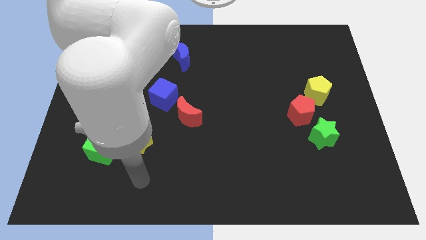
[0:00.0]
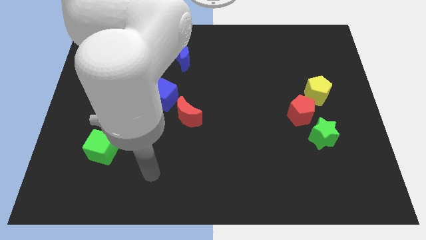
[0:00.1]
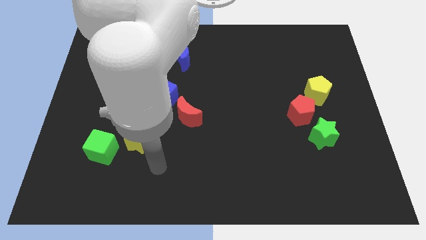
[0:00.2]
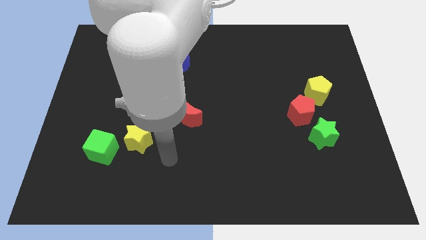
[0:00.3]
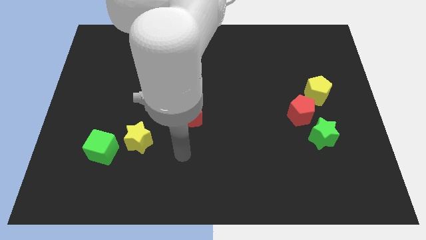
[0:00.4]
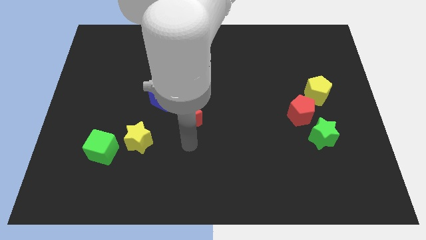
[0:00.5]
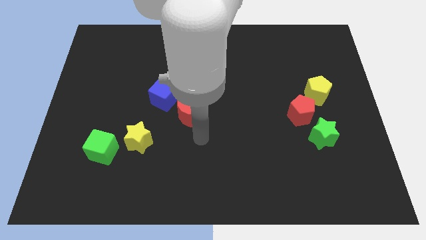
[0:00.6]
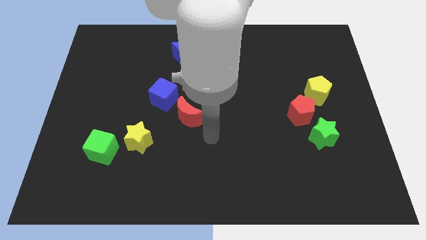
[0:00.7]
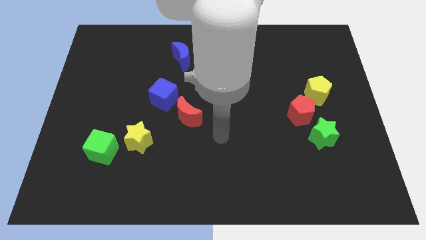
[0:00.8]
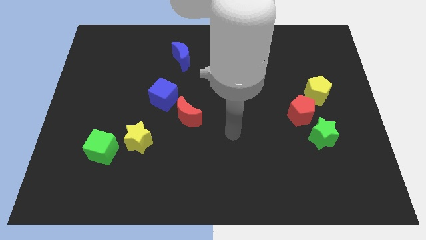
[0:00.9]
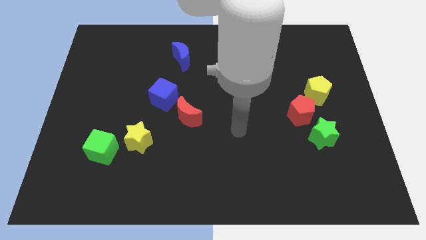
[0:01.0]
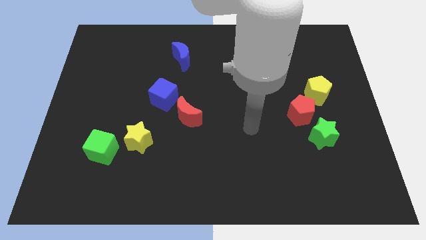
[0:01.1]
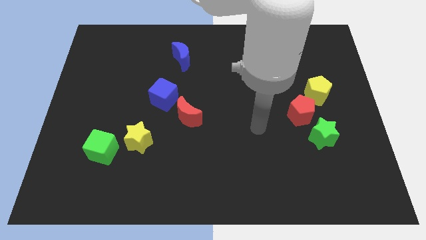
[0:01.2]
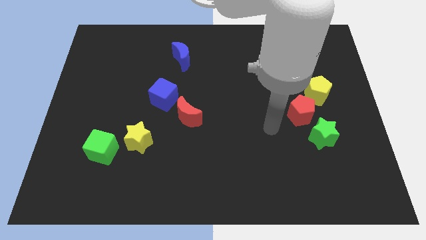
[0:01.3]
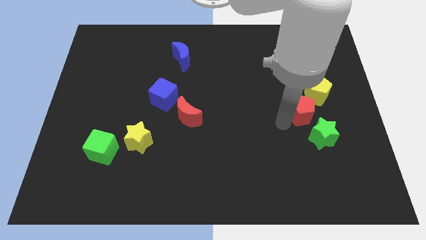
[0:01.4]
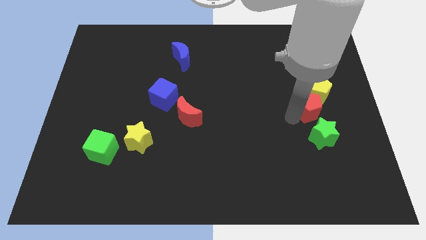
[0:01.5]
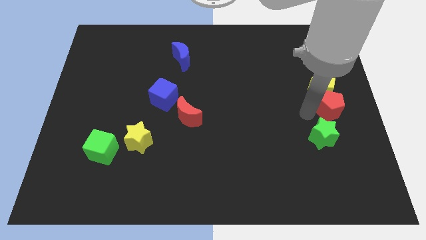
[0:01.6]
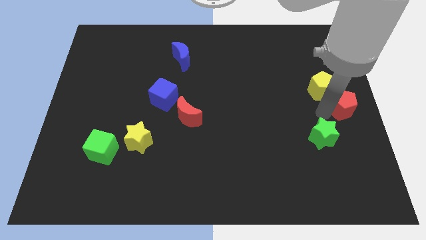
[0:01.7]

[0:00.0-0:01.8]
move the green star away from the red pentagon

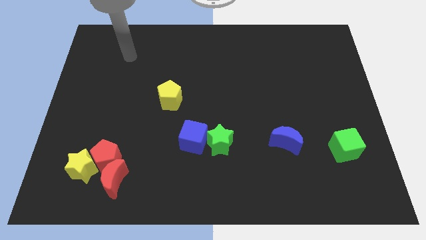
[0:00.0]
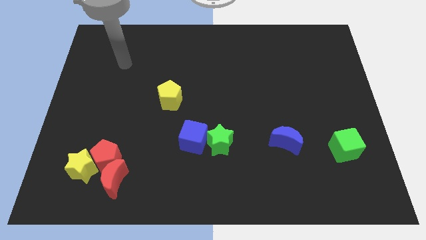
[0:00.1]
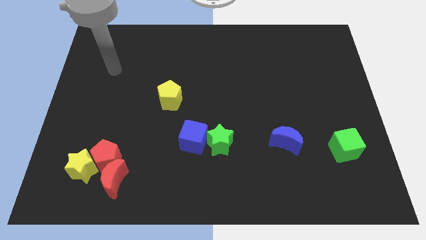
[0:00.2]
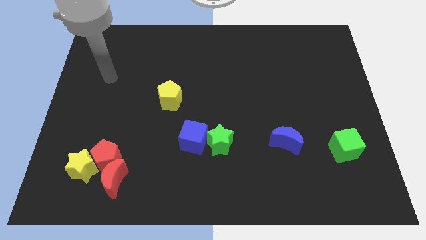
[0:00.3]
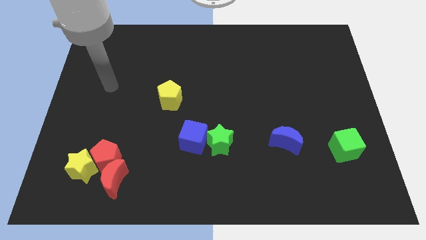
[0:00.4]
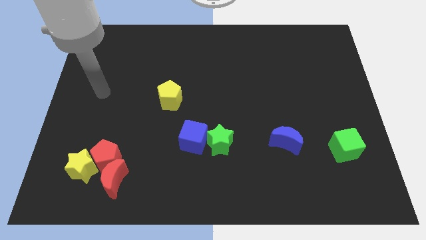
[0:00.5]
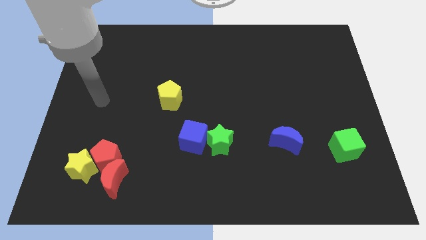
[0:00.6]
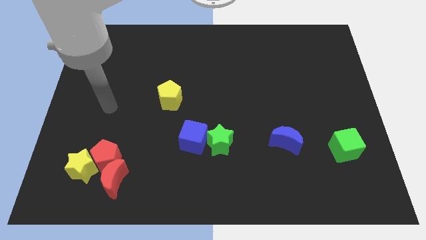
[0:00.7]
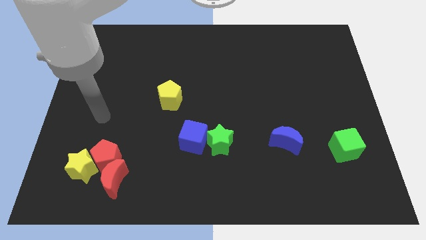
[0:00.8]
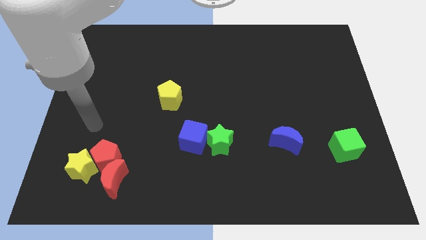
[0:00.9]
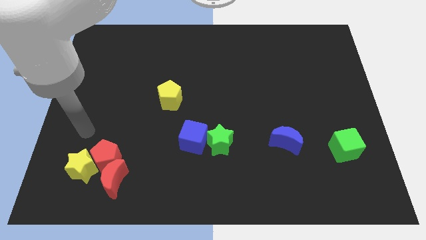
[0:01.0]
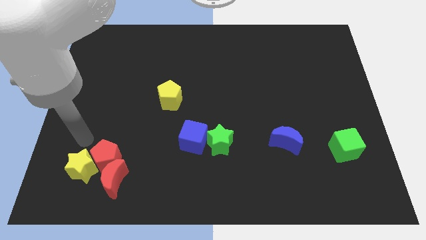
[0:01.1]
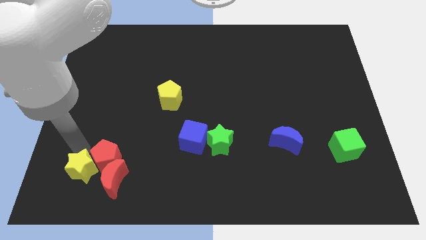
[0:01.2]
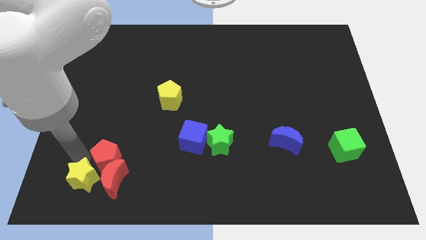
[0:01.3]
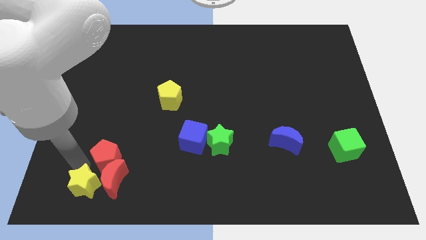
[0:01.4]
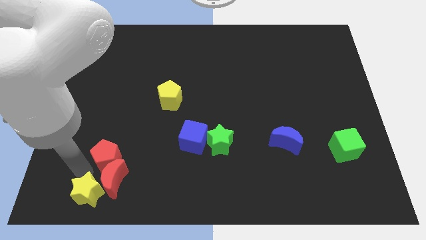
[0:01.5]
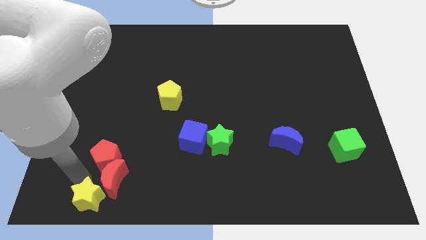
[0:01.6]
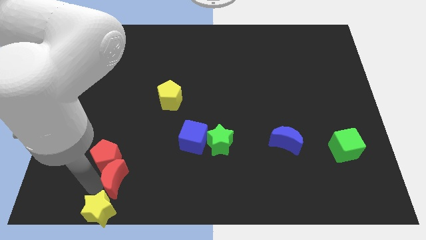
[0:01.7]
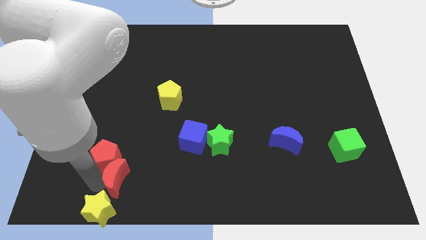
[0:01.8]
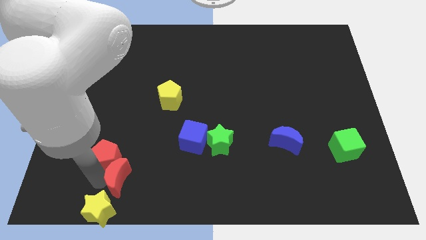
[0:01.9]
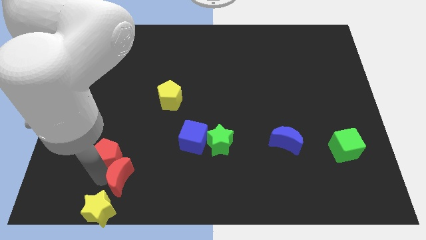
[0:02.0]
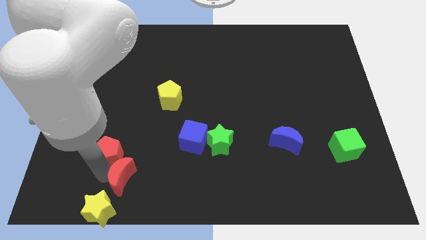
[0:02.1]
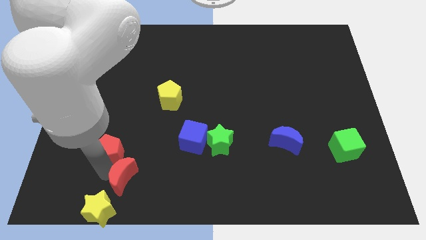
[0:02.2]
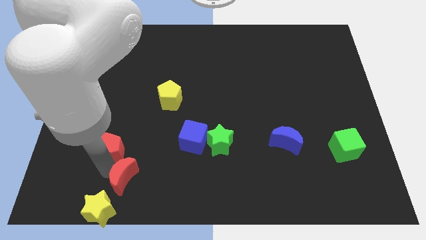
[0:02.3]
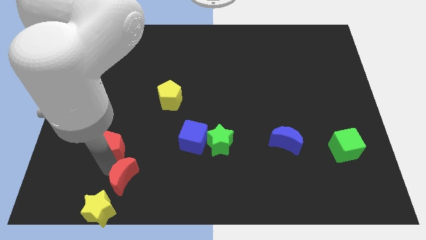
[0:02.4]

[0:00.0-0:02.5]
separate the red pentagon from the yellow star and red moon

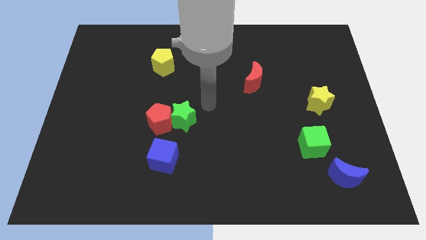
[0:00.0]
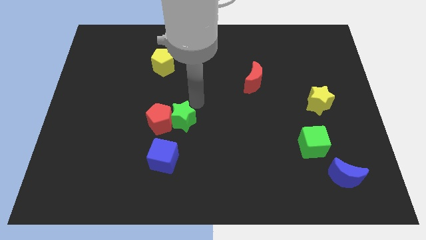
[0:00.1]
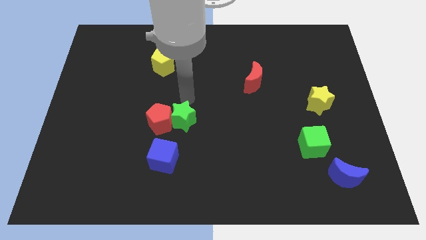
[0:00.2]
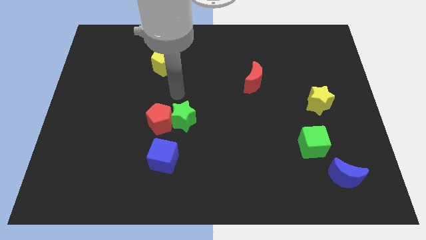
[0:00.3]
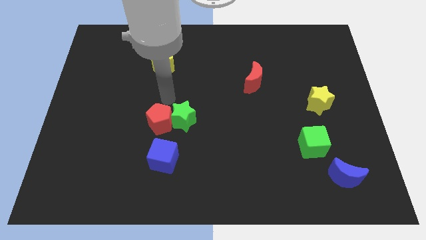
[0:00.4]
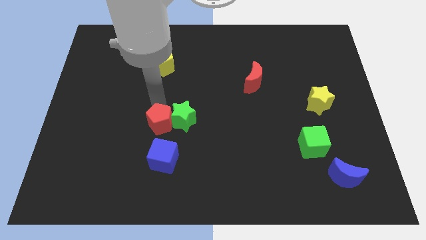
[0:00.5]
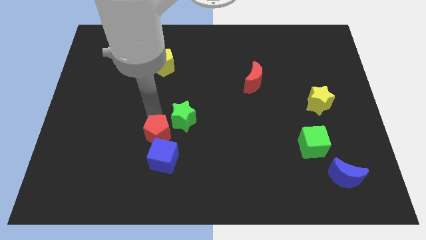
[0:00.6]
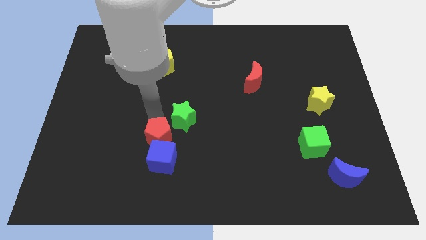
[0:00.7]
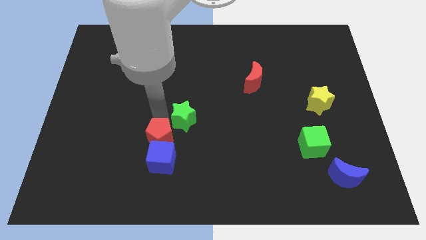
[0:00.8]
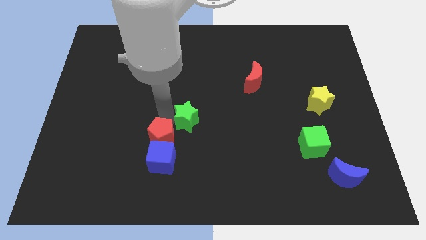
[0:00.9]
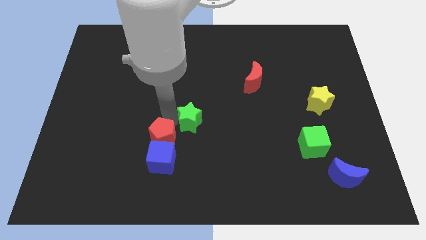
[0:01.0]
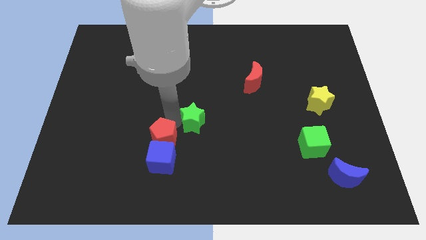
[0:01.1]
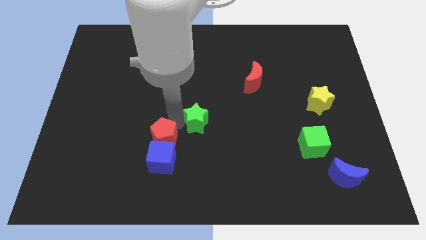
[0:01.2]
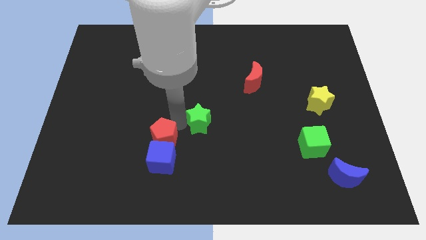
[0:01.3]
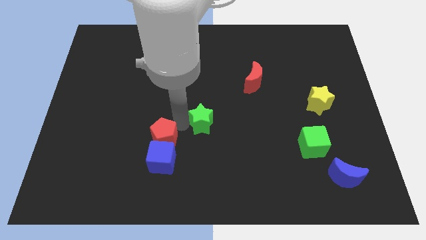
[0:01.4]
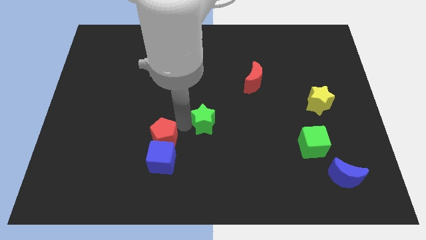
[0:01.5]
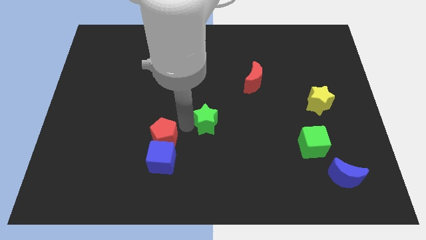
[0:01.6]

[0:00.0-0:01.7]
separate the green star from the red pentagon

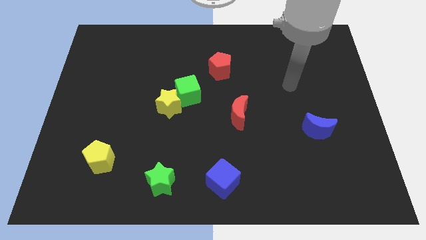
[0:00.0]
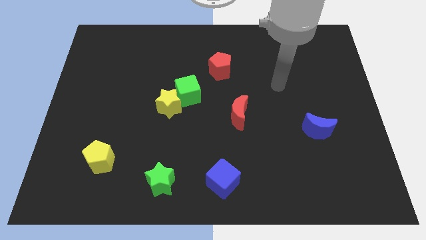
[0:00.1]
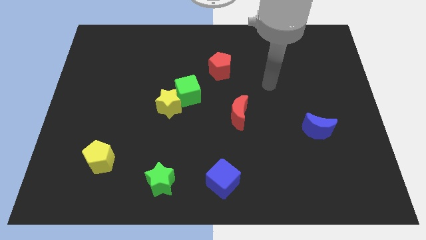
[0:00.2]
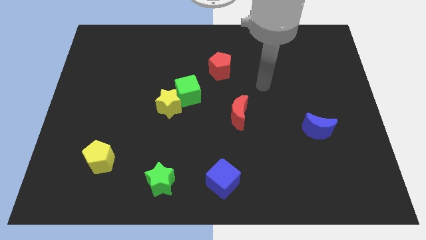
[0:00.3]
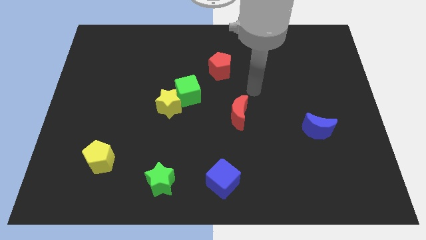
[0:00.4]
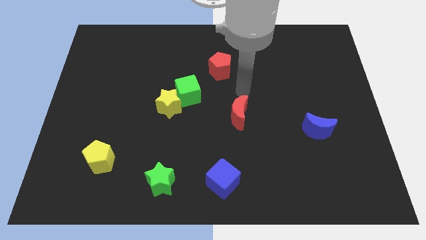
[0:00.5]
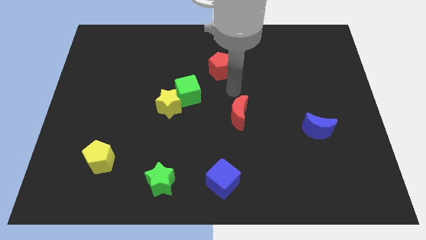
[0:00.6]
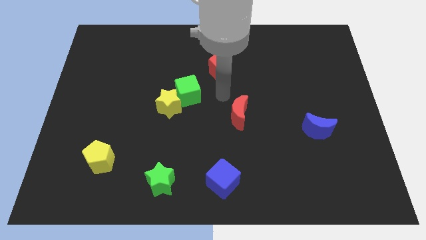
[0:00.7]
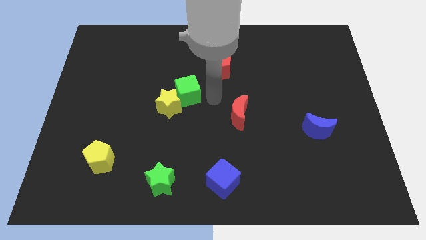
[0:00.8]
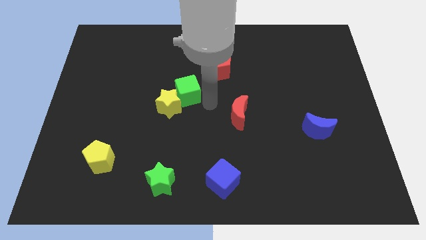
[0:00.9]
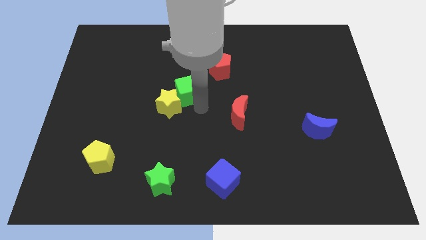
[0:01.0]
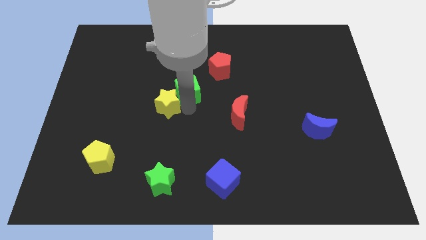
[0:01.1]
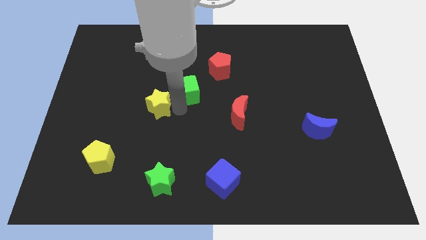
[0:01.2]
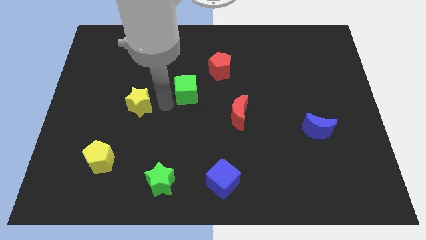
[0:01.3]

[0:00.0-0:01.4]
pull the green cube apart from the yellow star

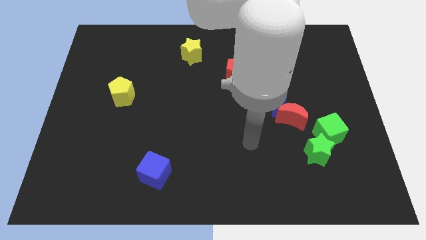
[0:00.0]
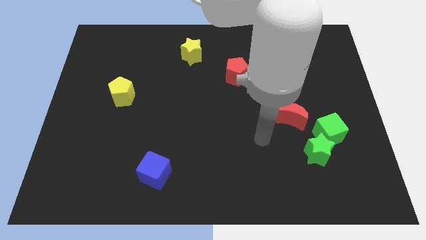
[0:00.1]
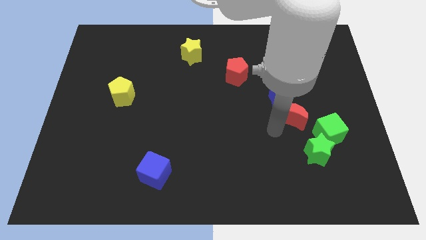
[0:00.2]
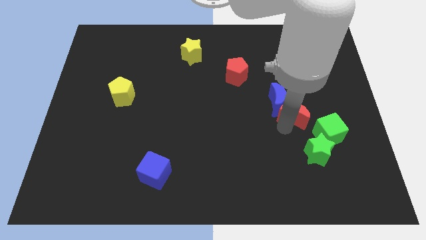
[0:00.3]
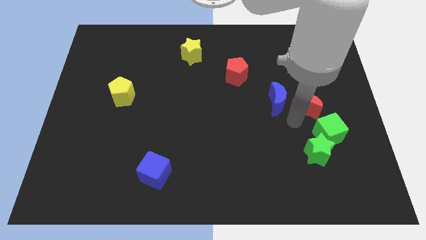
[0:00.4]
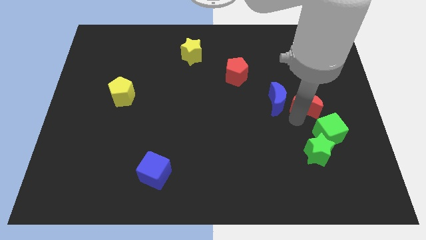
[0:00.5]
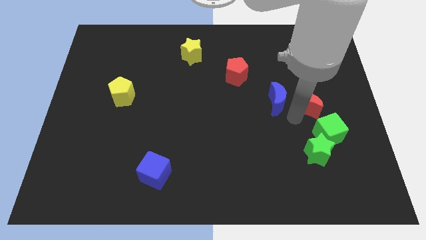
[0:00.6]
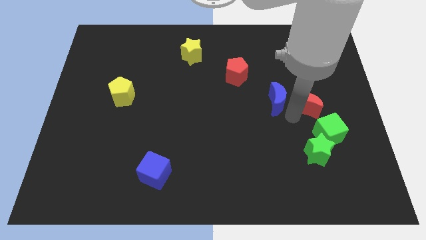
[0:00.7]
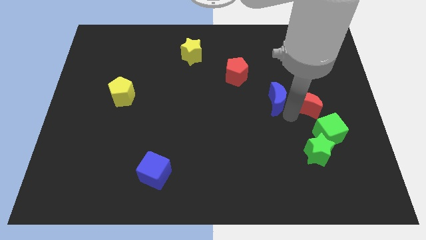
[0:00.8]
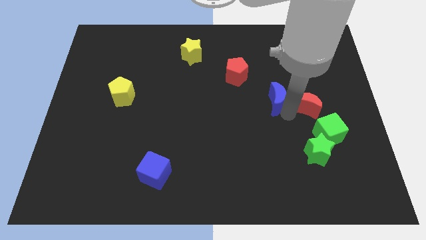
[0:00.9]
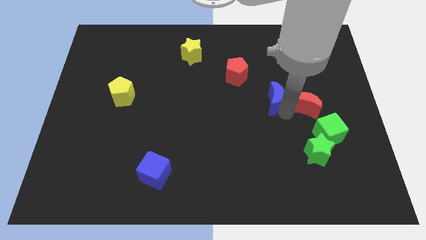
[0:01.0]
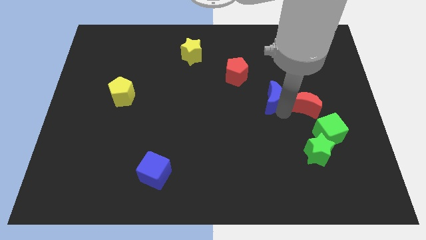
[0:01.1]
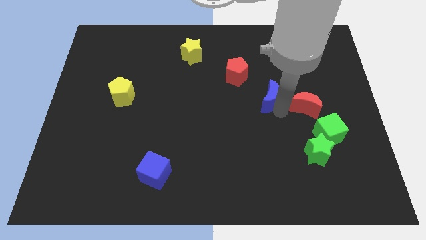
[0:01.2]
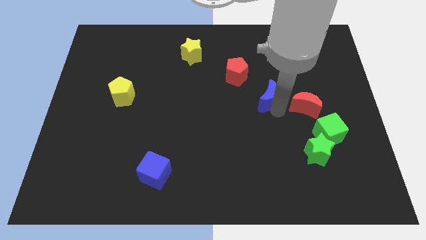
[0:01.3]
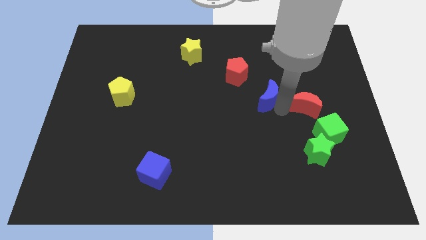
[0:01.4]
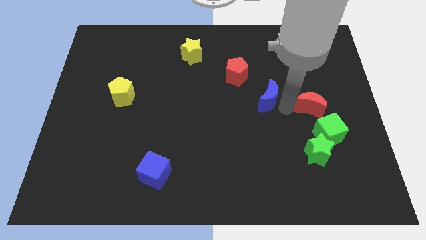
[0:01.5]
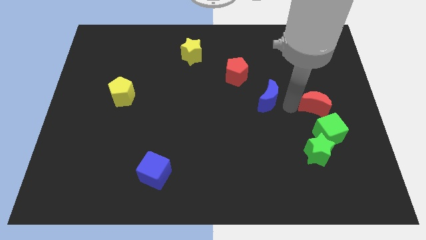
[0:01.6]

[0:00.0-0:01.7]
separate the blue moon from the red moon

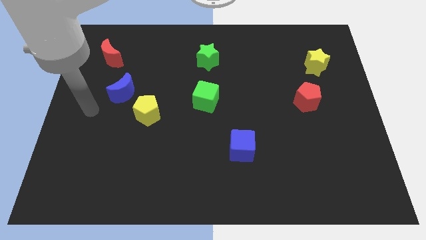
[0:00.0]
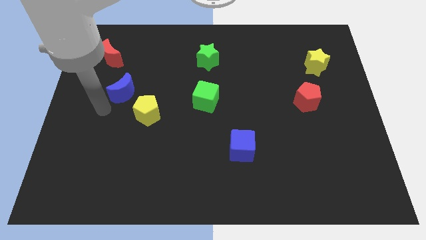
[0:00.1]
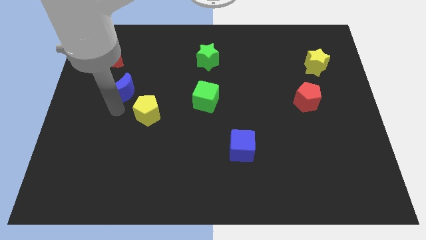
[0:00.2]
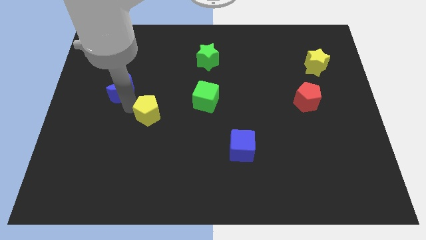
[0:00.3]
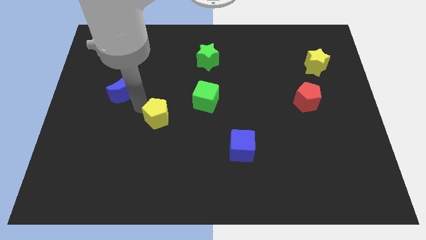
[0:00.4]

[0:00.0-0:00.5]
pull the blue moon apart from the yellow pentagon
